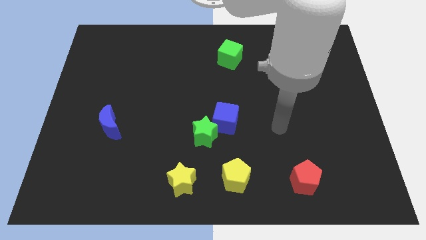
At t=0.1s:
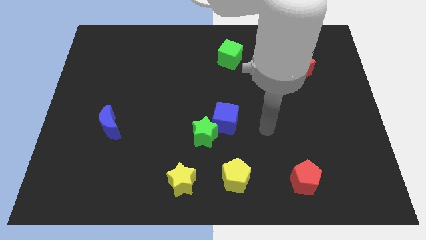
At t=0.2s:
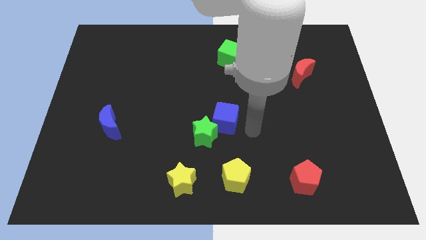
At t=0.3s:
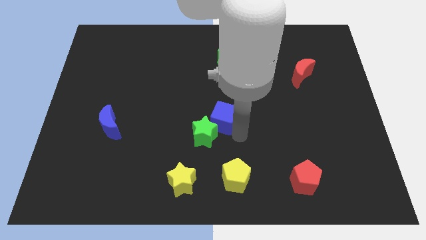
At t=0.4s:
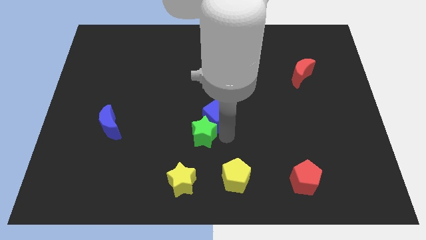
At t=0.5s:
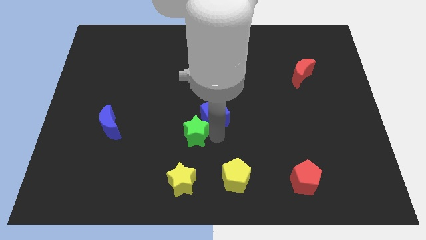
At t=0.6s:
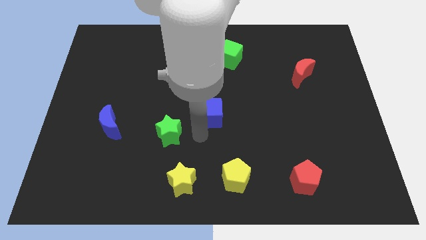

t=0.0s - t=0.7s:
separate the blue cube from the green star

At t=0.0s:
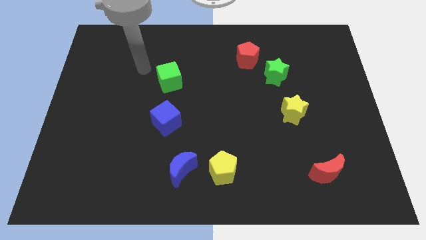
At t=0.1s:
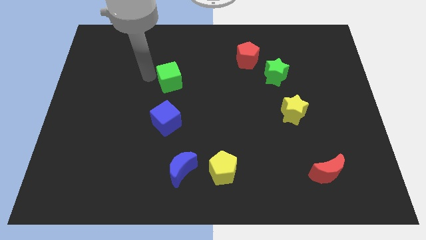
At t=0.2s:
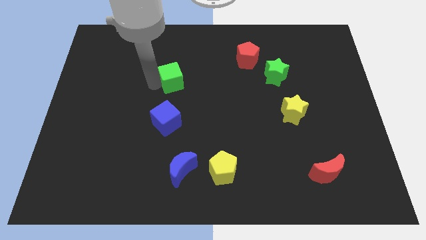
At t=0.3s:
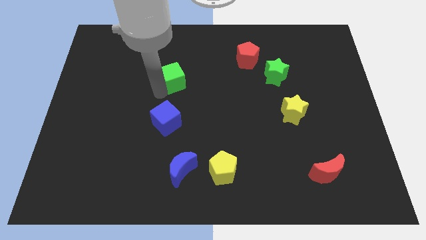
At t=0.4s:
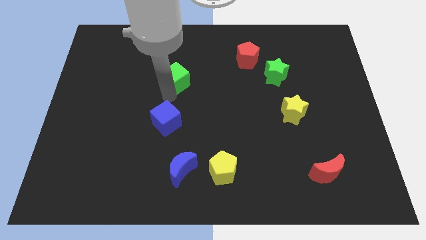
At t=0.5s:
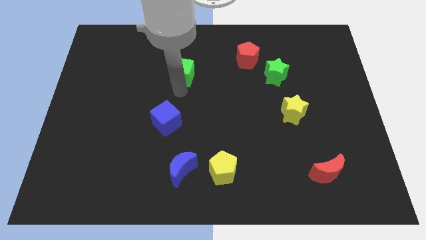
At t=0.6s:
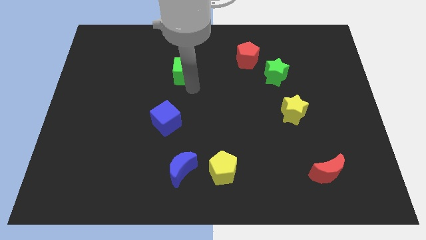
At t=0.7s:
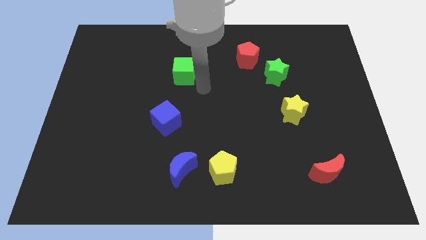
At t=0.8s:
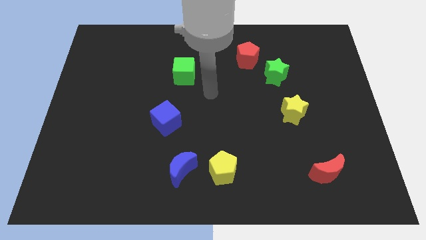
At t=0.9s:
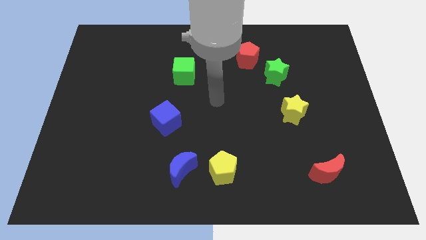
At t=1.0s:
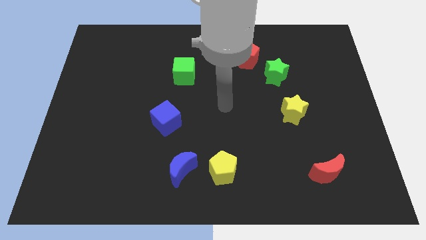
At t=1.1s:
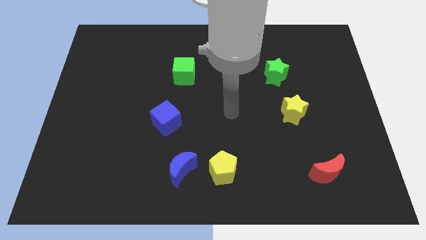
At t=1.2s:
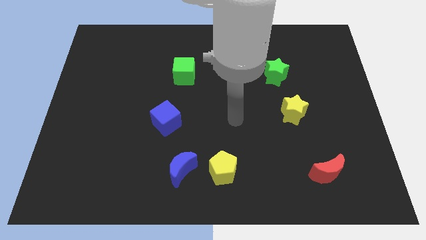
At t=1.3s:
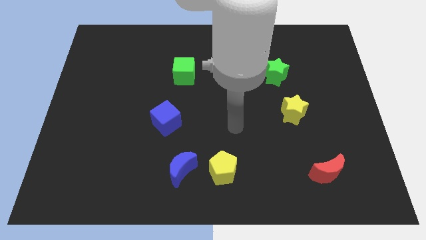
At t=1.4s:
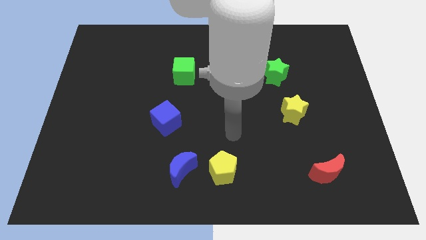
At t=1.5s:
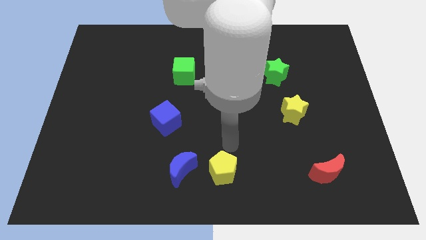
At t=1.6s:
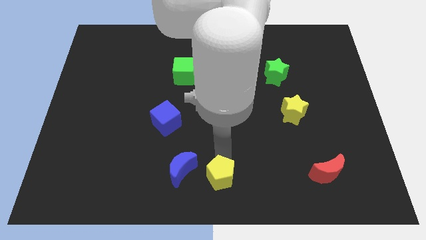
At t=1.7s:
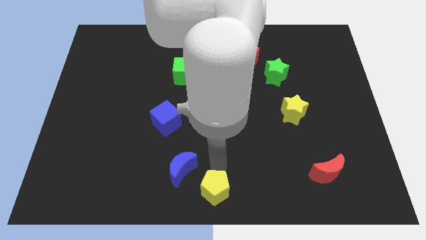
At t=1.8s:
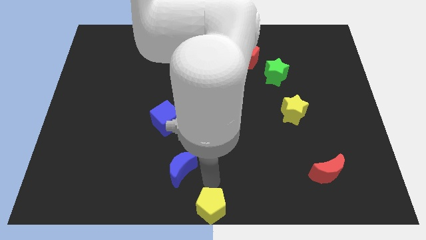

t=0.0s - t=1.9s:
move the blue moon away from the yellow pentagon

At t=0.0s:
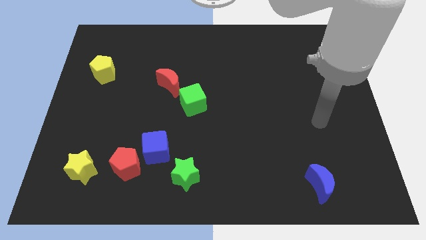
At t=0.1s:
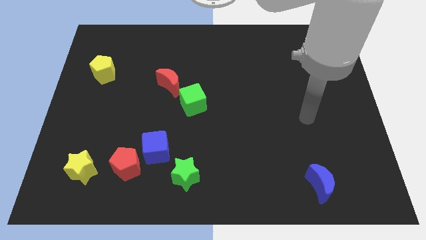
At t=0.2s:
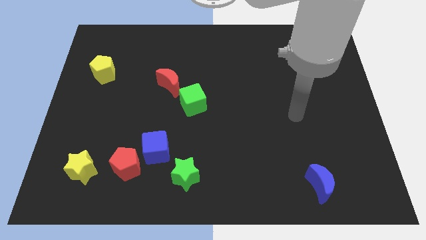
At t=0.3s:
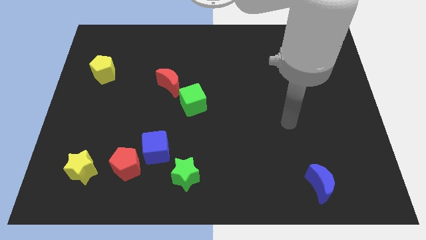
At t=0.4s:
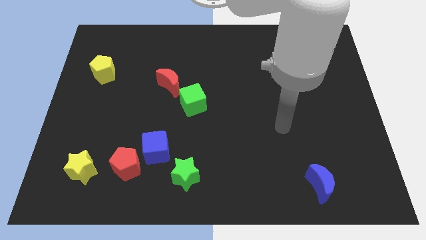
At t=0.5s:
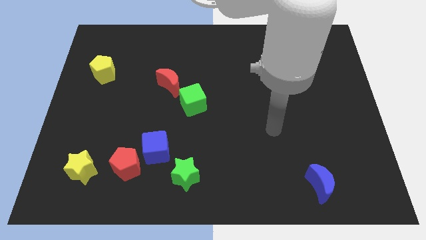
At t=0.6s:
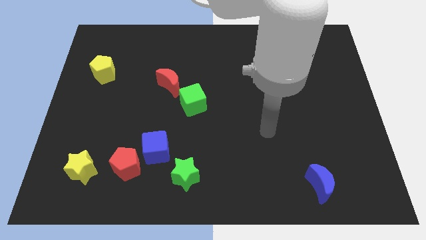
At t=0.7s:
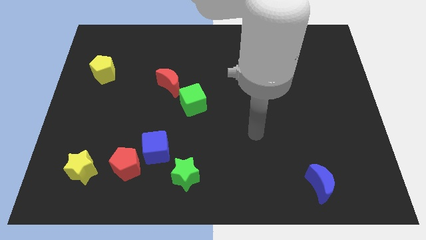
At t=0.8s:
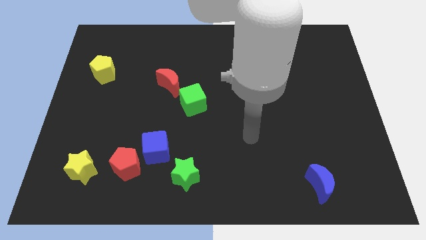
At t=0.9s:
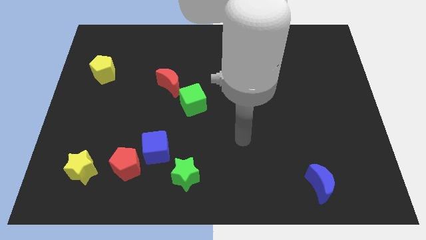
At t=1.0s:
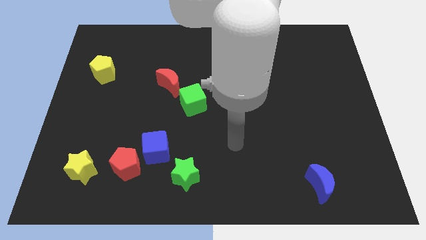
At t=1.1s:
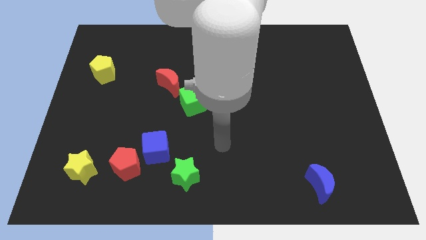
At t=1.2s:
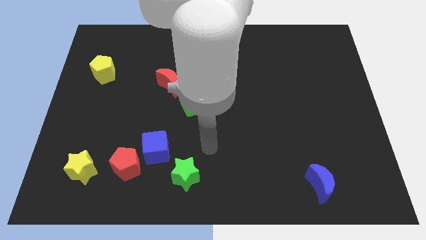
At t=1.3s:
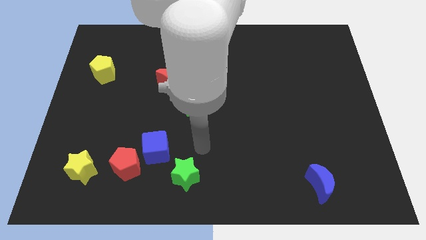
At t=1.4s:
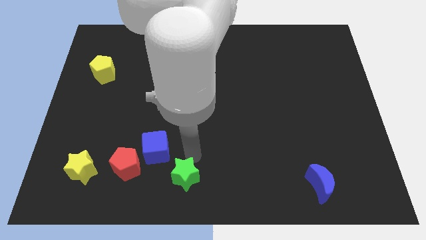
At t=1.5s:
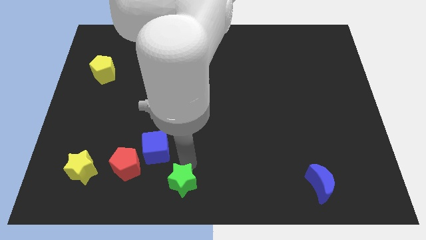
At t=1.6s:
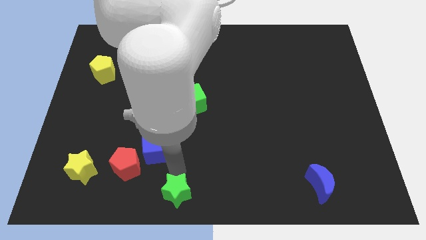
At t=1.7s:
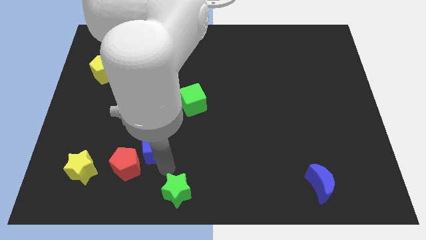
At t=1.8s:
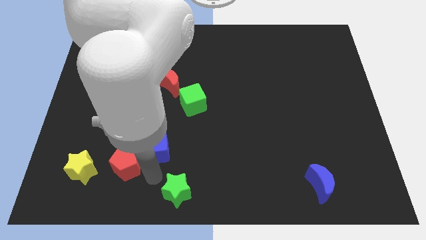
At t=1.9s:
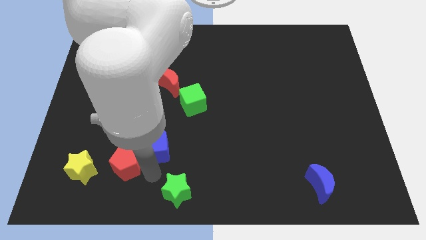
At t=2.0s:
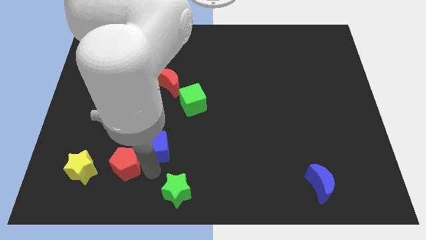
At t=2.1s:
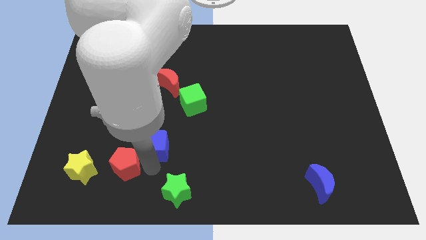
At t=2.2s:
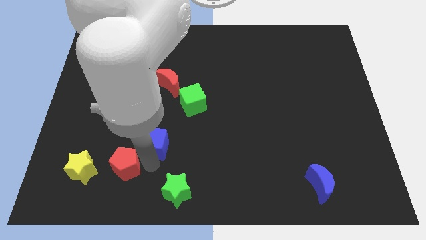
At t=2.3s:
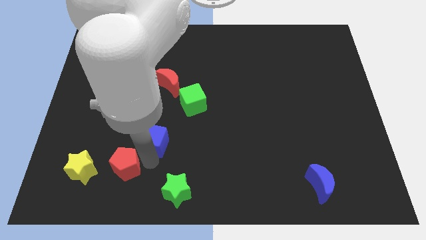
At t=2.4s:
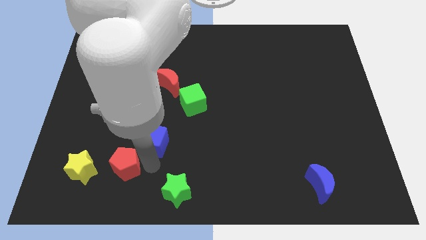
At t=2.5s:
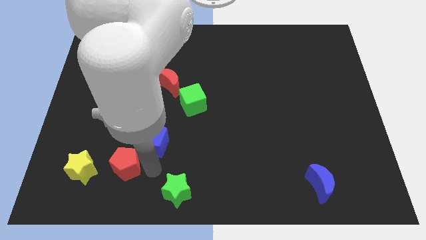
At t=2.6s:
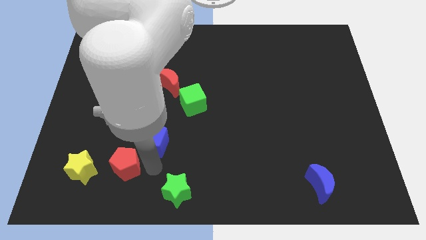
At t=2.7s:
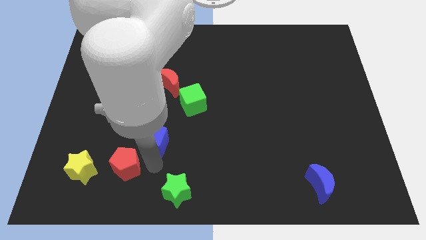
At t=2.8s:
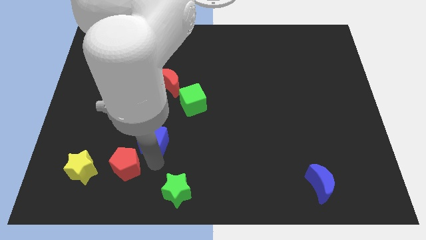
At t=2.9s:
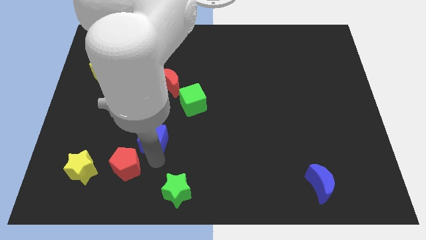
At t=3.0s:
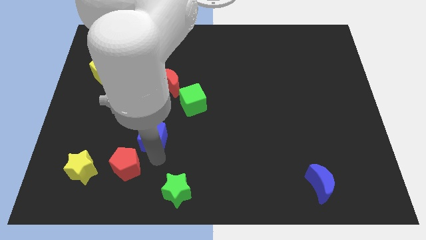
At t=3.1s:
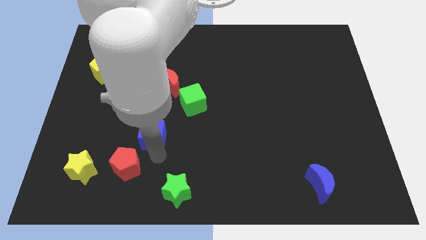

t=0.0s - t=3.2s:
pull the blue cube apart from the red pentagon and green star

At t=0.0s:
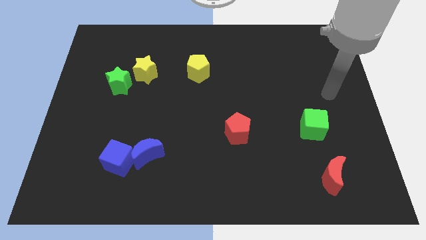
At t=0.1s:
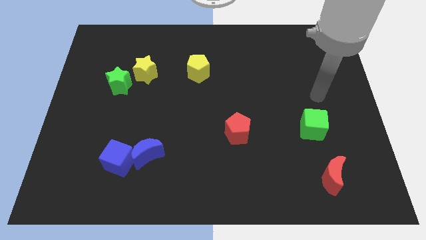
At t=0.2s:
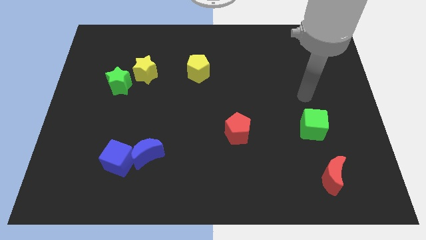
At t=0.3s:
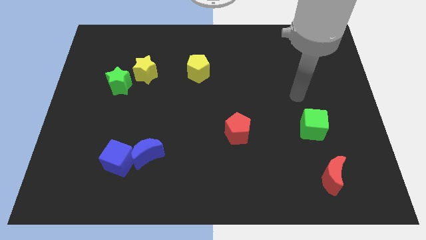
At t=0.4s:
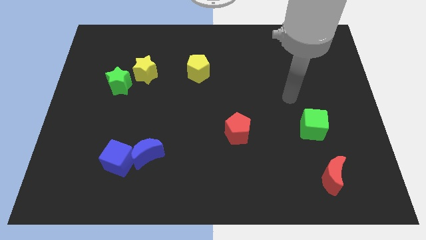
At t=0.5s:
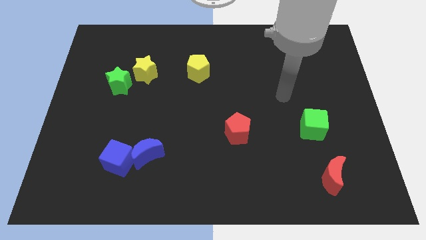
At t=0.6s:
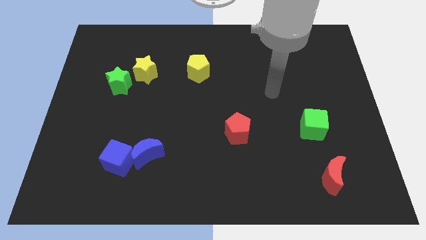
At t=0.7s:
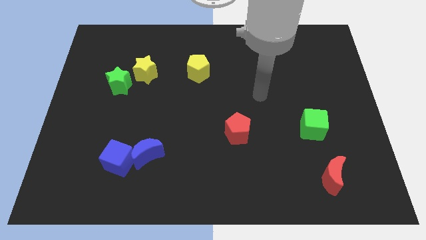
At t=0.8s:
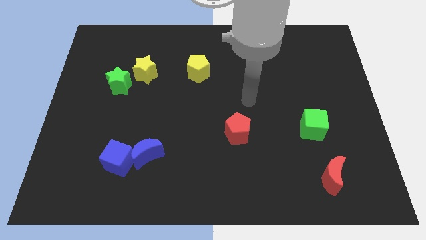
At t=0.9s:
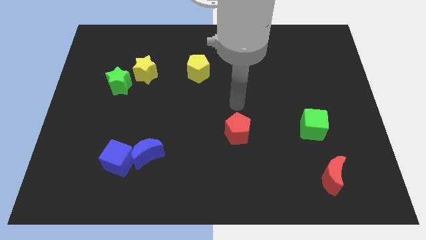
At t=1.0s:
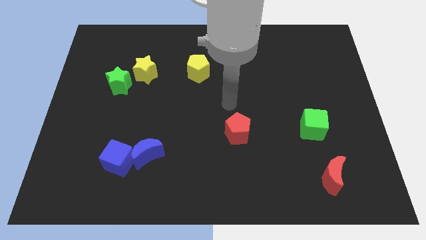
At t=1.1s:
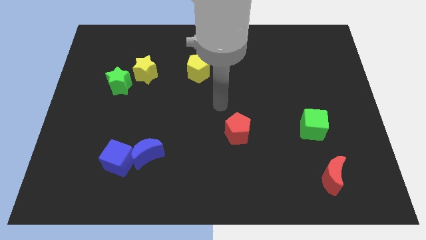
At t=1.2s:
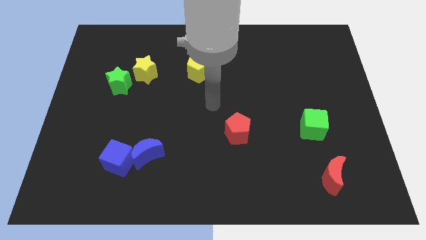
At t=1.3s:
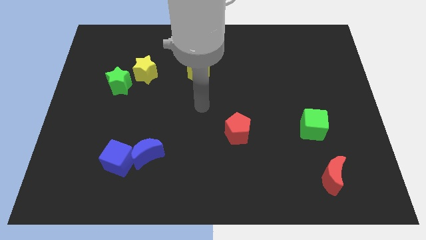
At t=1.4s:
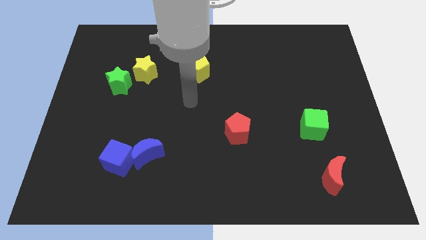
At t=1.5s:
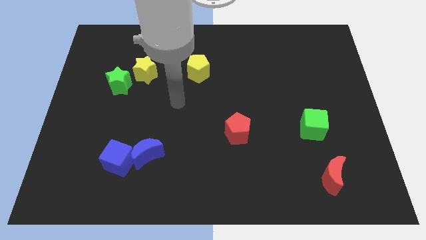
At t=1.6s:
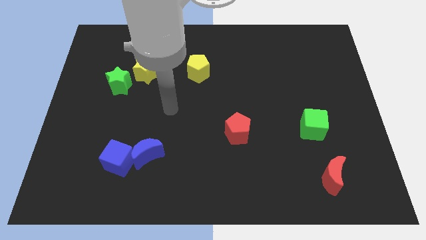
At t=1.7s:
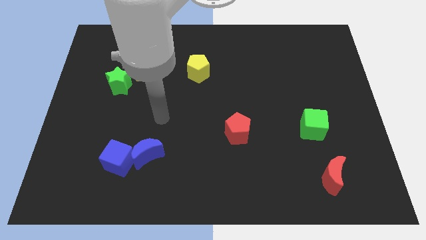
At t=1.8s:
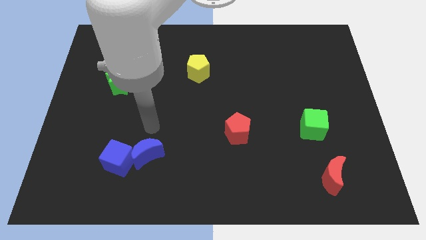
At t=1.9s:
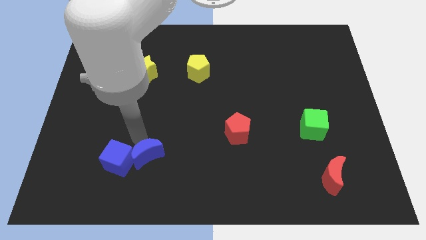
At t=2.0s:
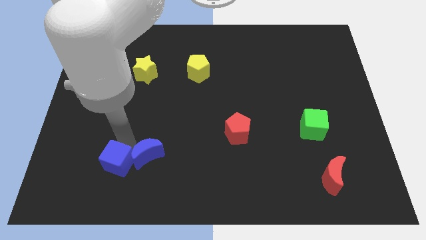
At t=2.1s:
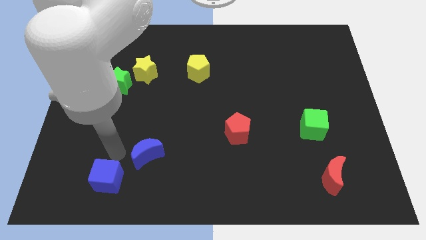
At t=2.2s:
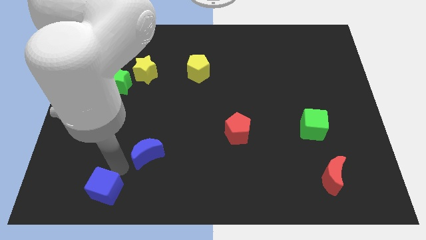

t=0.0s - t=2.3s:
move the blue moon away from the blue cube

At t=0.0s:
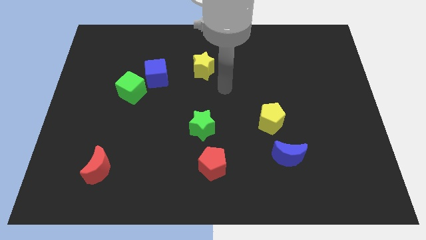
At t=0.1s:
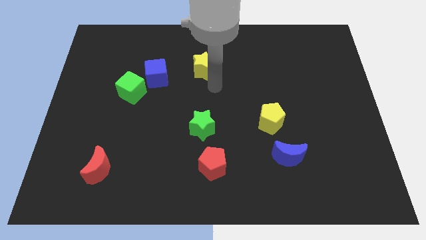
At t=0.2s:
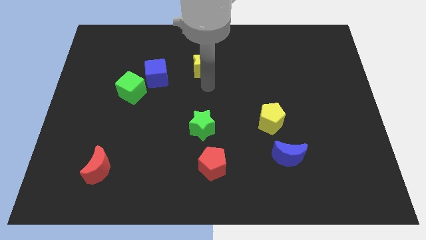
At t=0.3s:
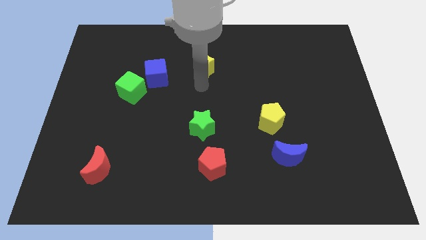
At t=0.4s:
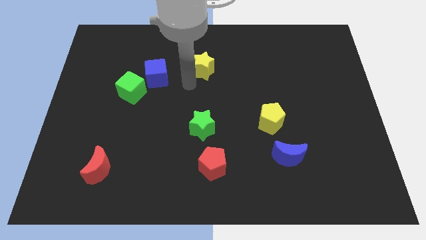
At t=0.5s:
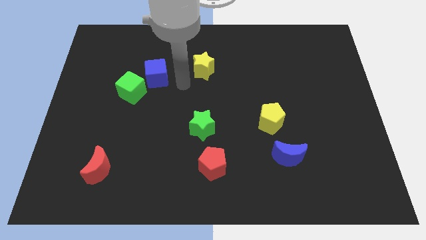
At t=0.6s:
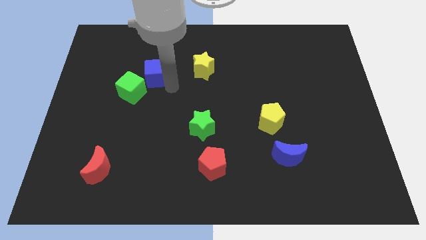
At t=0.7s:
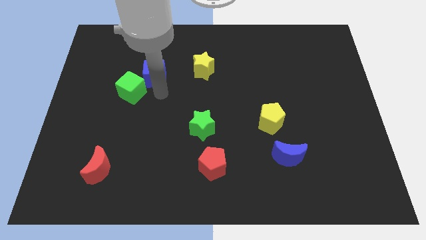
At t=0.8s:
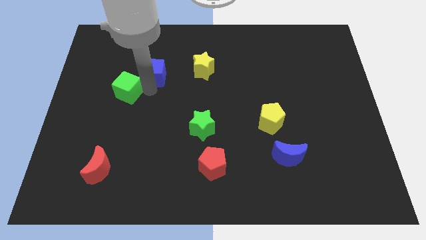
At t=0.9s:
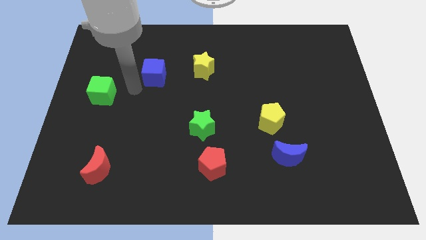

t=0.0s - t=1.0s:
separate the blue cube from the green cube

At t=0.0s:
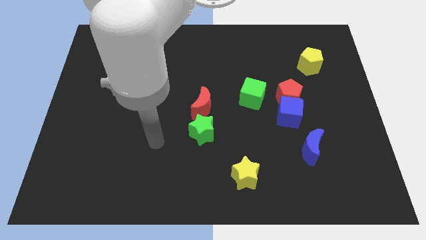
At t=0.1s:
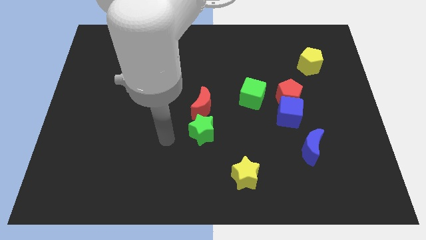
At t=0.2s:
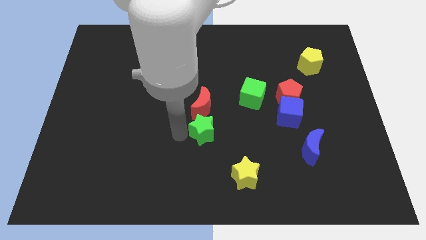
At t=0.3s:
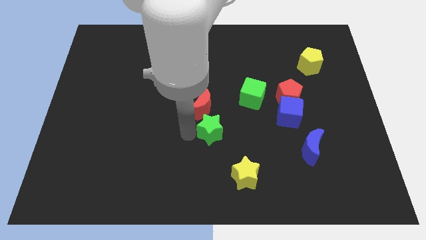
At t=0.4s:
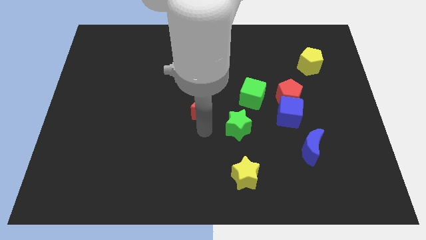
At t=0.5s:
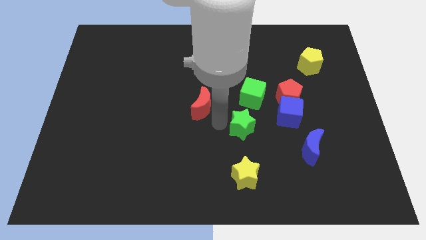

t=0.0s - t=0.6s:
pull the red moon apart from the green star
